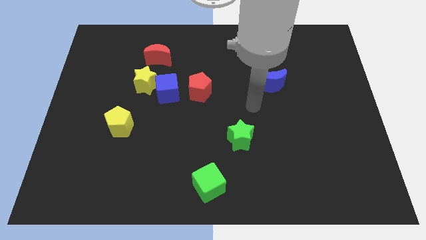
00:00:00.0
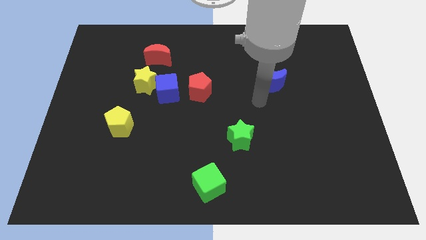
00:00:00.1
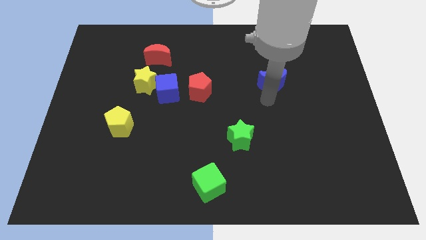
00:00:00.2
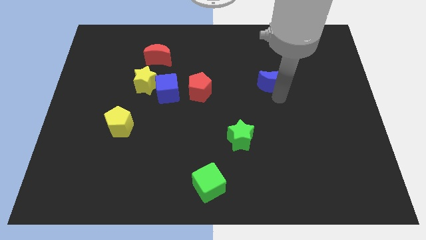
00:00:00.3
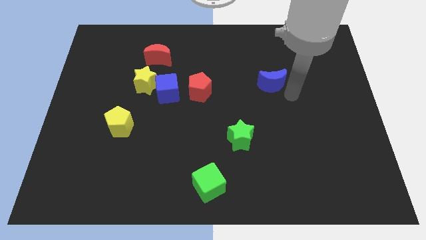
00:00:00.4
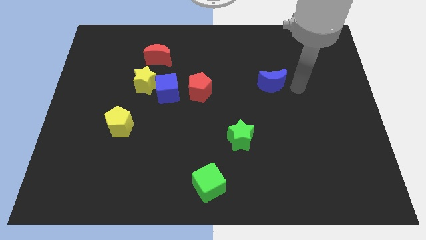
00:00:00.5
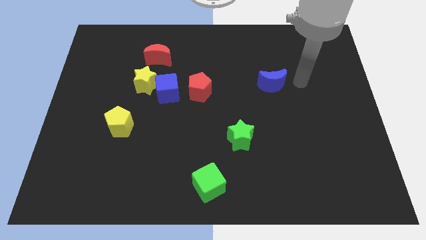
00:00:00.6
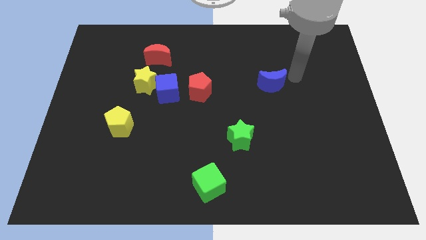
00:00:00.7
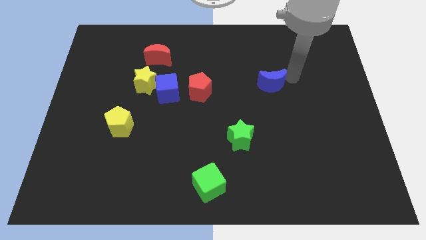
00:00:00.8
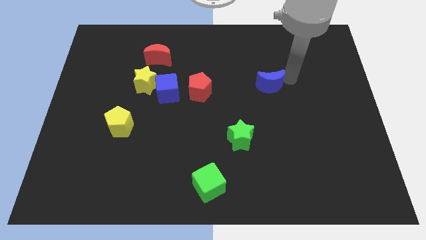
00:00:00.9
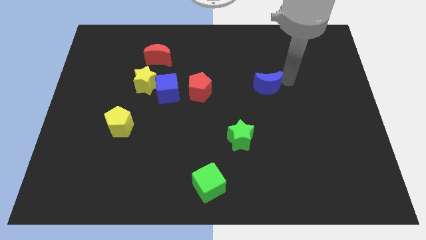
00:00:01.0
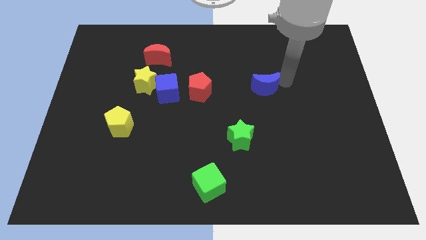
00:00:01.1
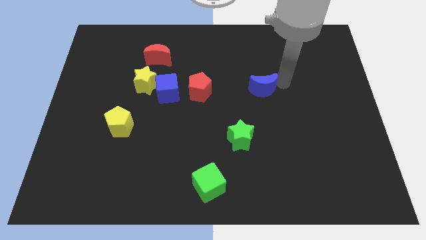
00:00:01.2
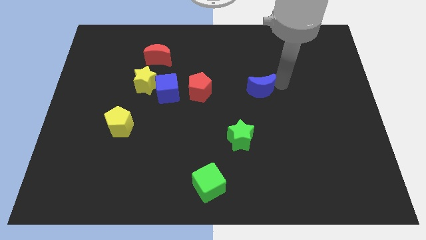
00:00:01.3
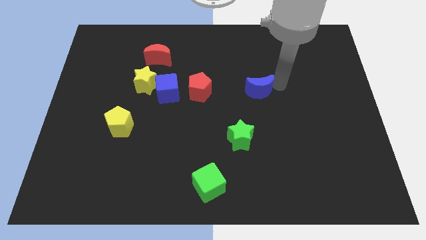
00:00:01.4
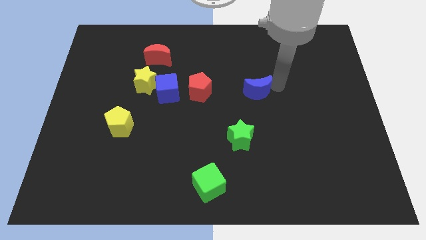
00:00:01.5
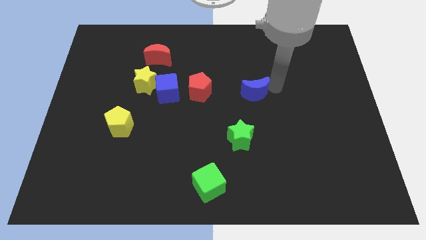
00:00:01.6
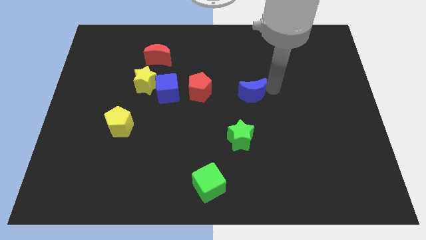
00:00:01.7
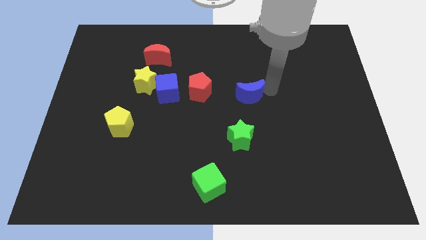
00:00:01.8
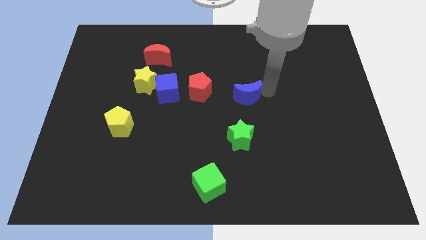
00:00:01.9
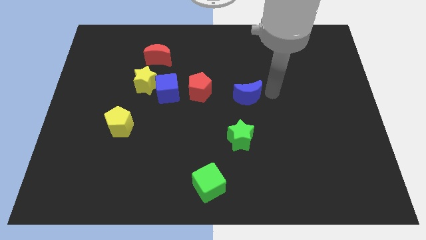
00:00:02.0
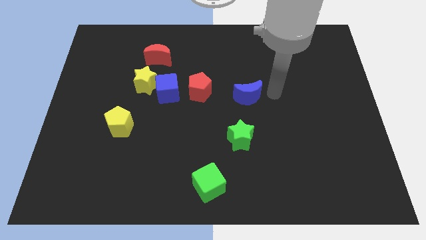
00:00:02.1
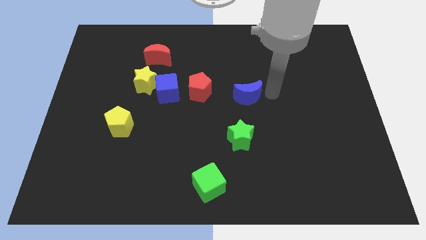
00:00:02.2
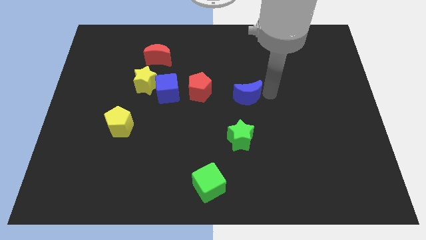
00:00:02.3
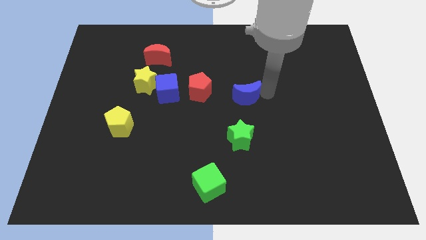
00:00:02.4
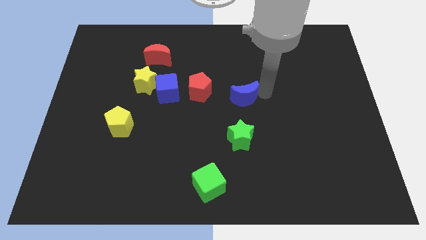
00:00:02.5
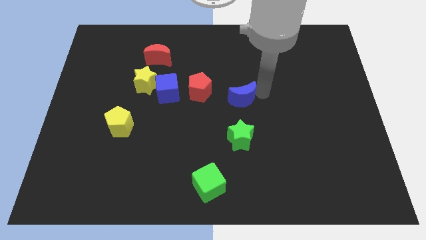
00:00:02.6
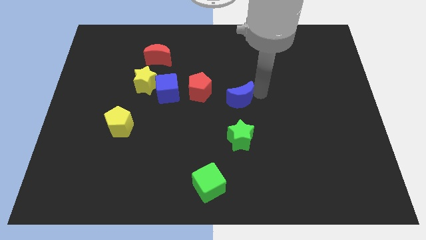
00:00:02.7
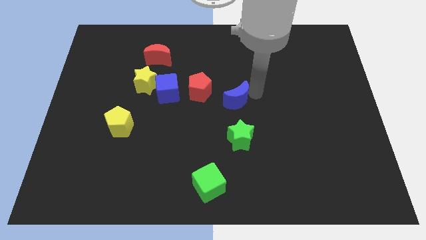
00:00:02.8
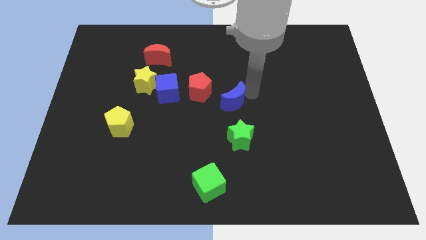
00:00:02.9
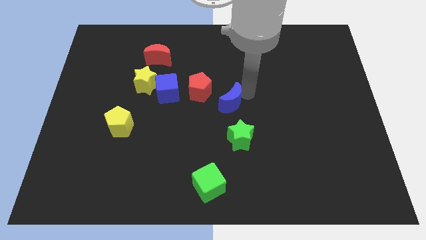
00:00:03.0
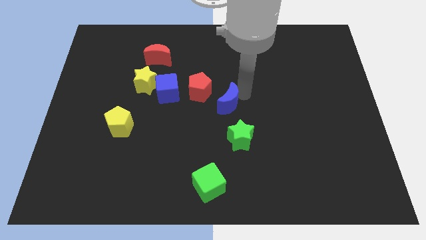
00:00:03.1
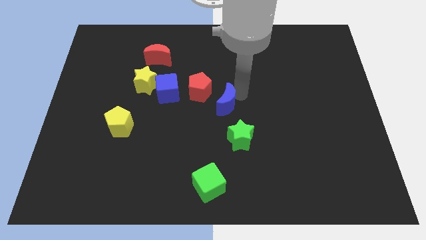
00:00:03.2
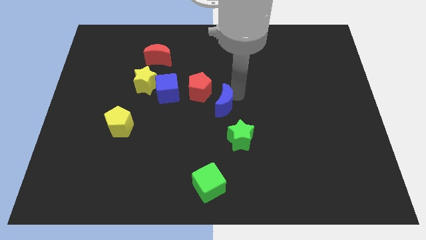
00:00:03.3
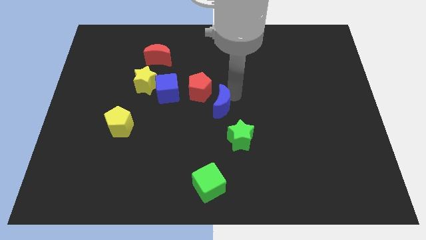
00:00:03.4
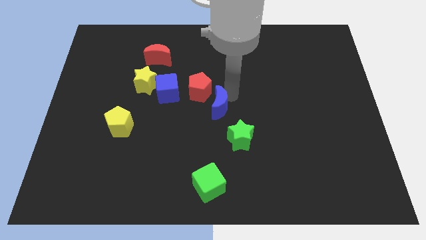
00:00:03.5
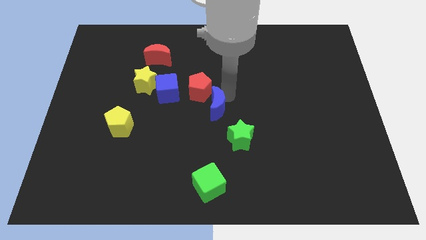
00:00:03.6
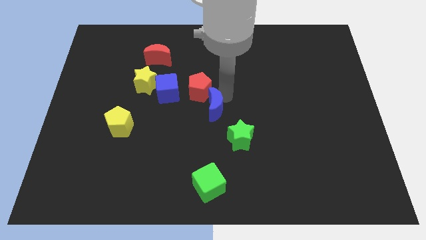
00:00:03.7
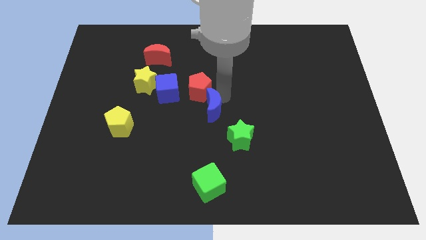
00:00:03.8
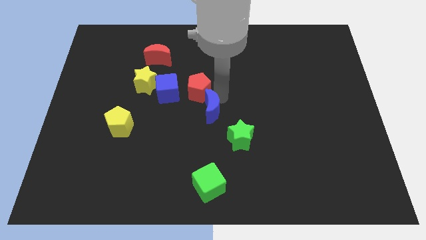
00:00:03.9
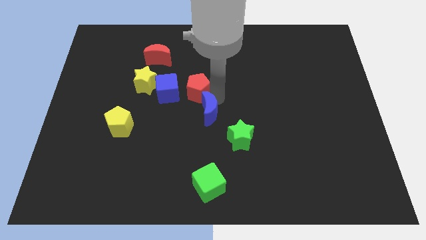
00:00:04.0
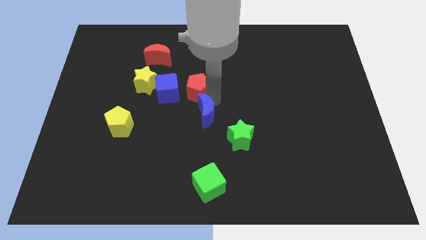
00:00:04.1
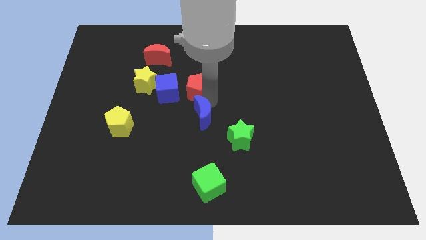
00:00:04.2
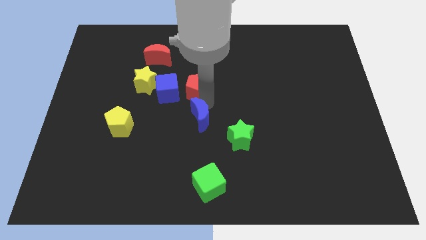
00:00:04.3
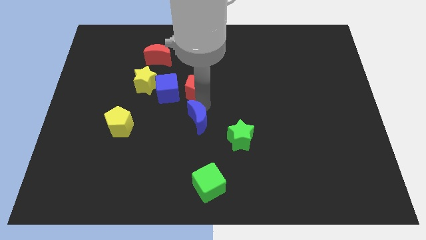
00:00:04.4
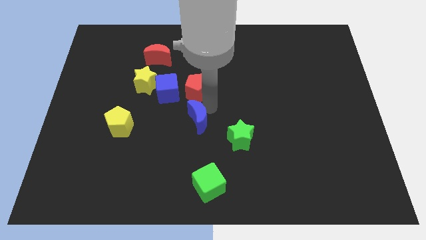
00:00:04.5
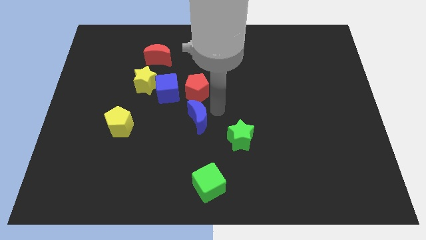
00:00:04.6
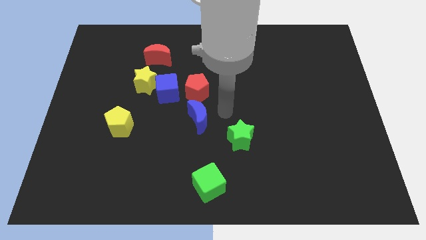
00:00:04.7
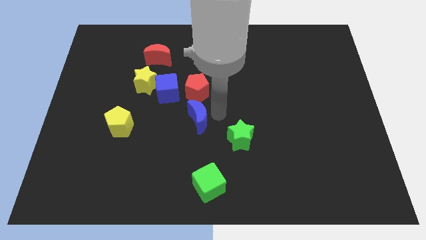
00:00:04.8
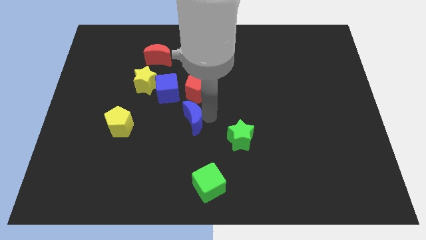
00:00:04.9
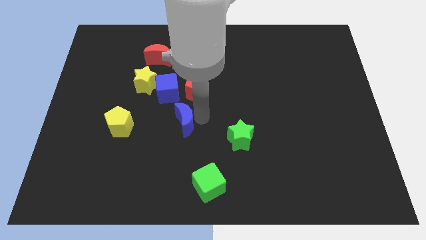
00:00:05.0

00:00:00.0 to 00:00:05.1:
put the blue moon to the bottom side of the blue cube

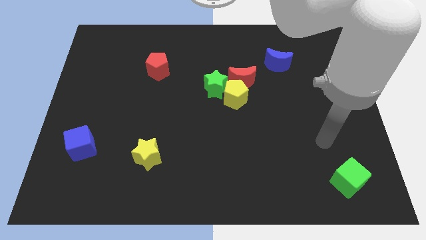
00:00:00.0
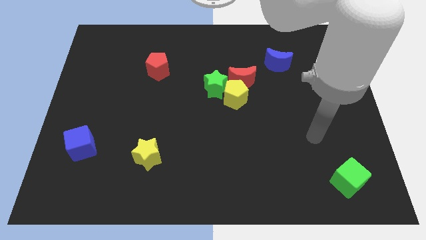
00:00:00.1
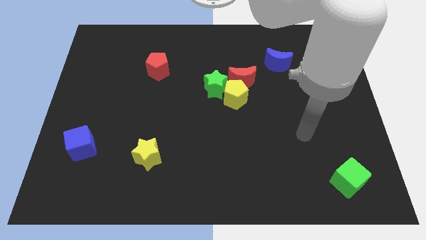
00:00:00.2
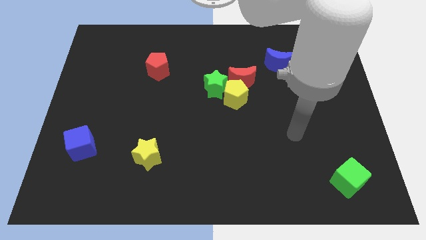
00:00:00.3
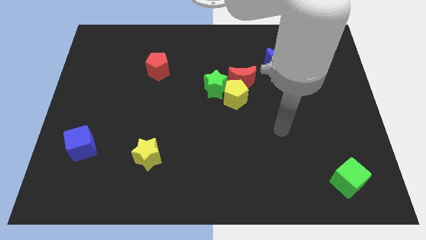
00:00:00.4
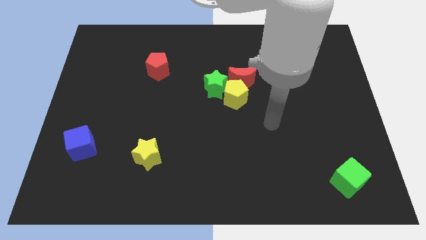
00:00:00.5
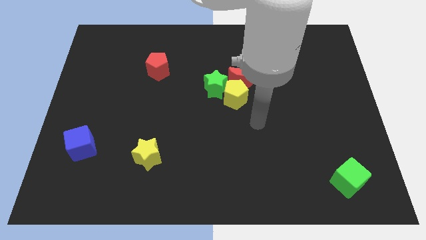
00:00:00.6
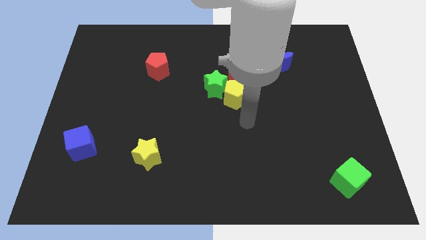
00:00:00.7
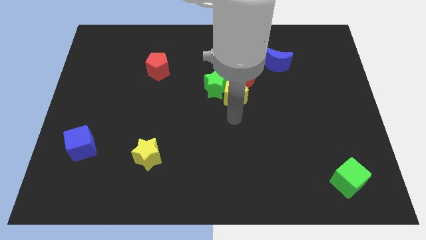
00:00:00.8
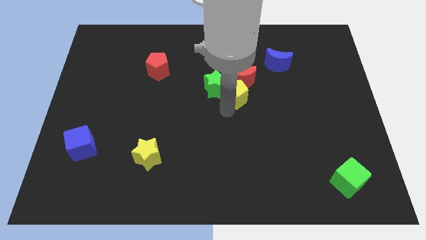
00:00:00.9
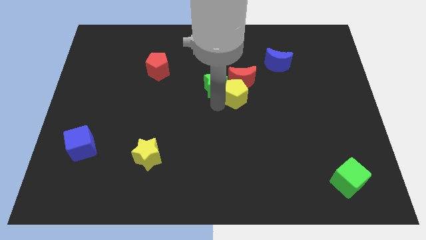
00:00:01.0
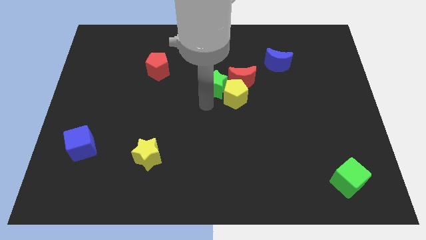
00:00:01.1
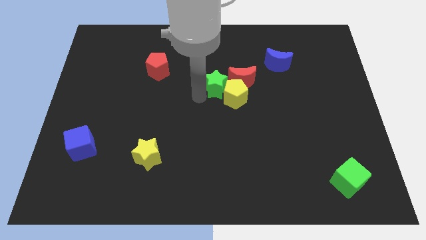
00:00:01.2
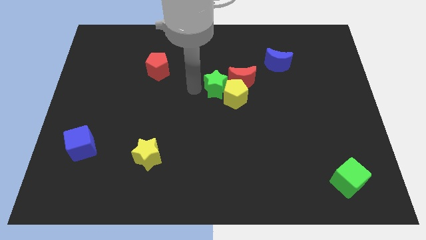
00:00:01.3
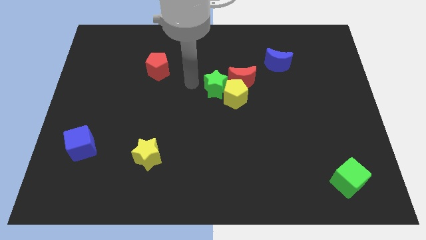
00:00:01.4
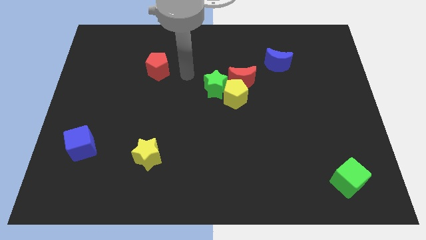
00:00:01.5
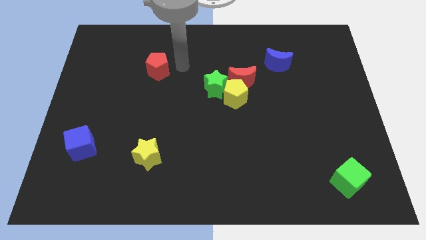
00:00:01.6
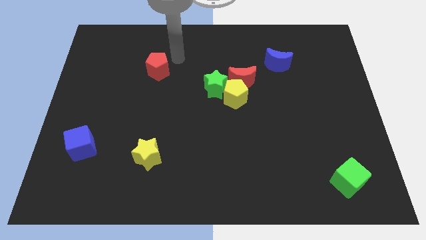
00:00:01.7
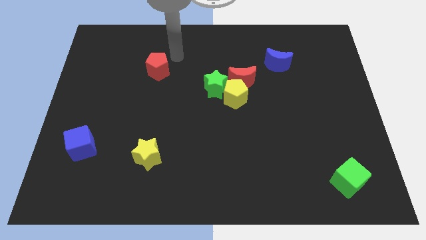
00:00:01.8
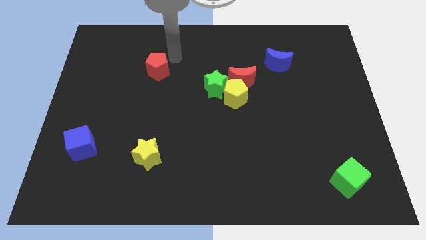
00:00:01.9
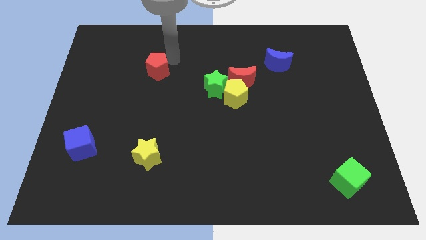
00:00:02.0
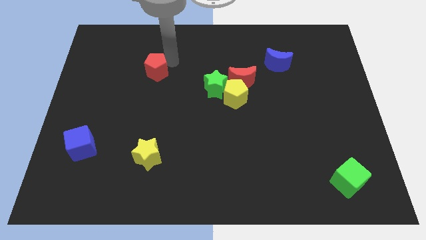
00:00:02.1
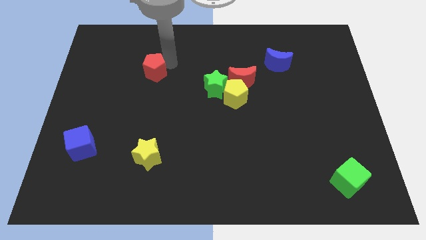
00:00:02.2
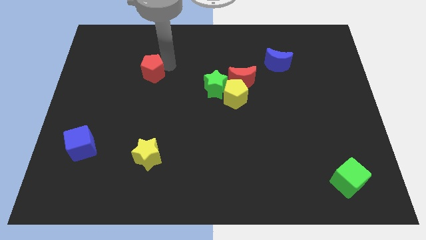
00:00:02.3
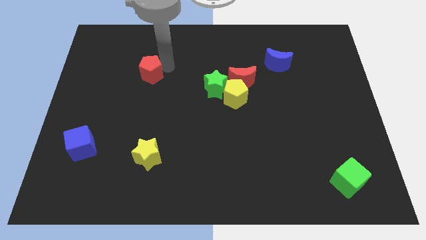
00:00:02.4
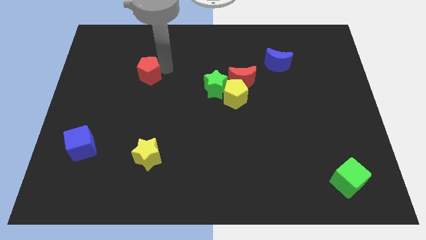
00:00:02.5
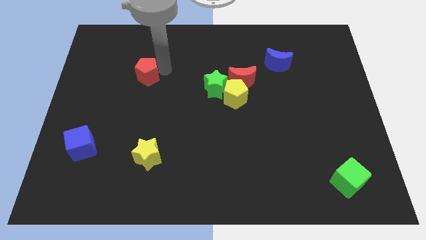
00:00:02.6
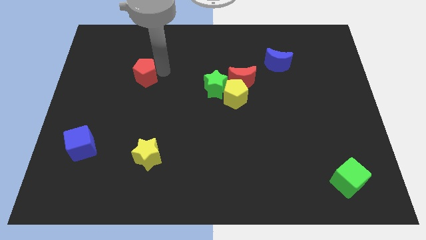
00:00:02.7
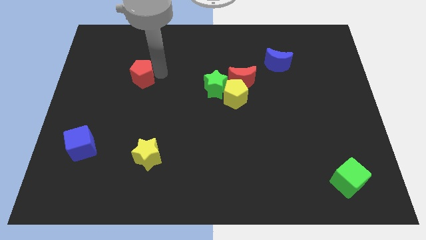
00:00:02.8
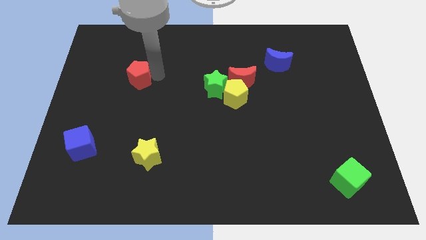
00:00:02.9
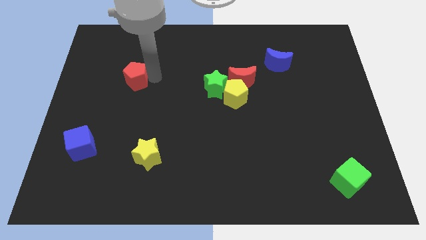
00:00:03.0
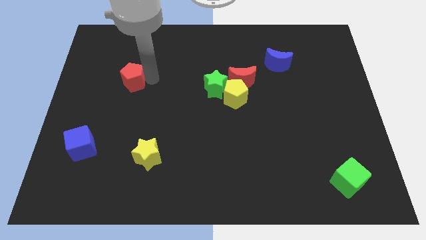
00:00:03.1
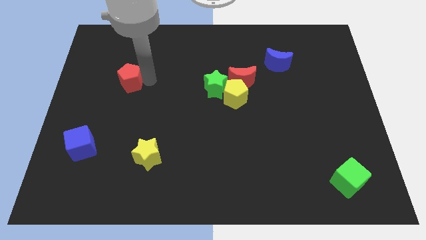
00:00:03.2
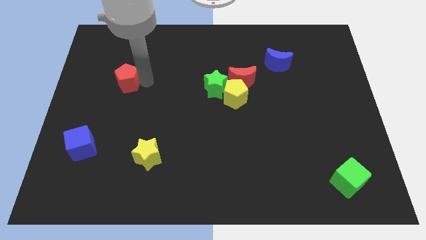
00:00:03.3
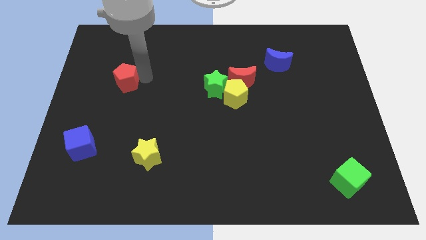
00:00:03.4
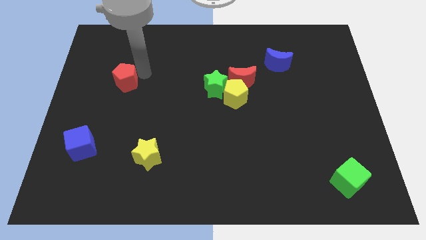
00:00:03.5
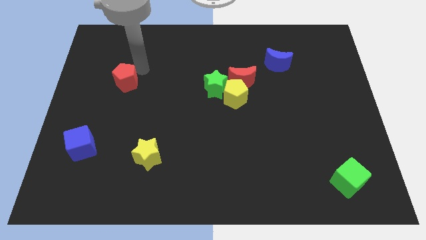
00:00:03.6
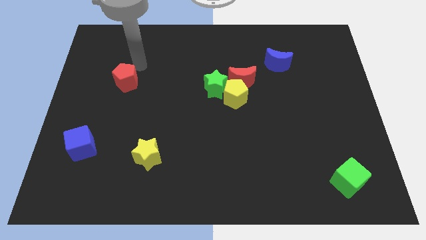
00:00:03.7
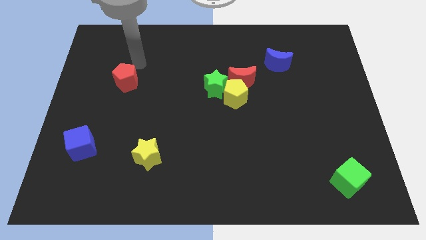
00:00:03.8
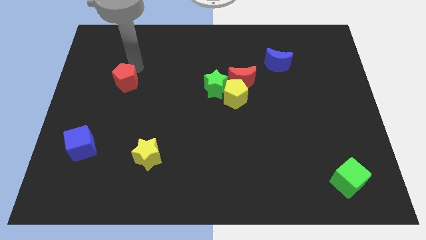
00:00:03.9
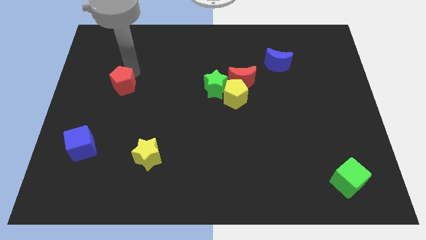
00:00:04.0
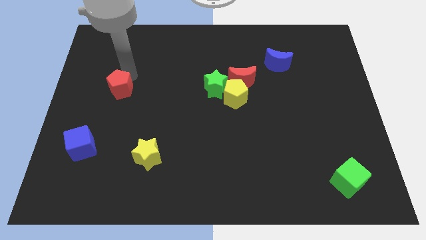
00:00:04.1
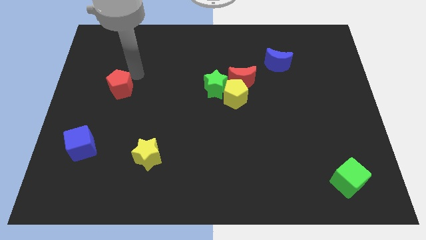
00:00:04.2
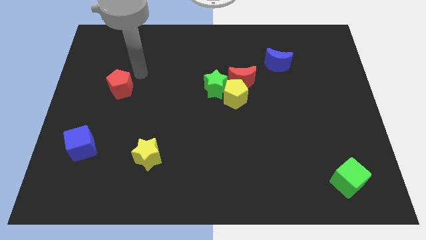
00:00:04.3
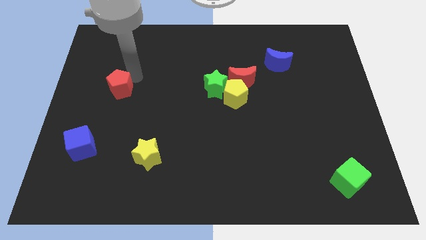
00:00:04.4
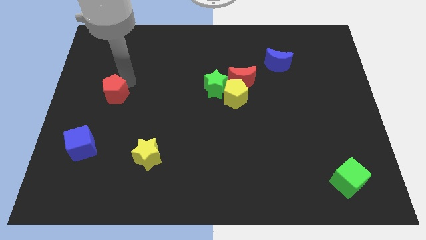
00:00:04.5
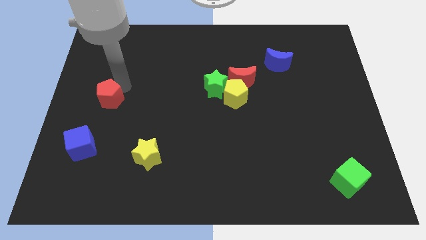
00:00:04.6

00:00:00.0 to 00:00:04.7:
slide the red pentagon to the top of the blue cube
